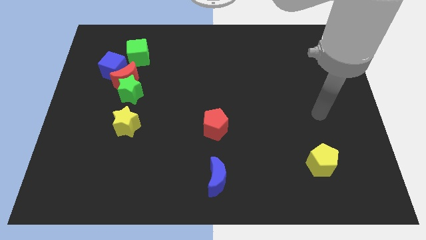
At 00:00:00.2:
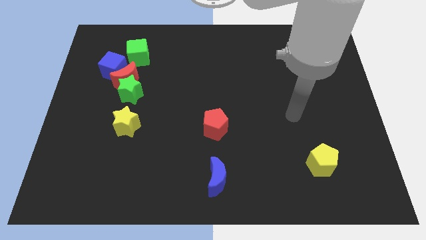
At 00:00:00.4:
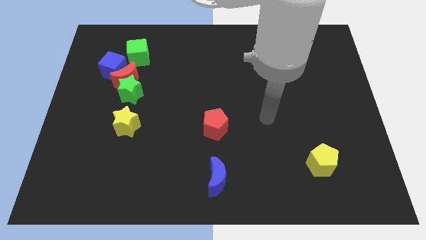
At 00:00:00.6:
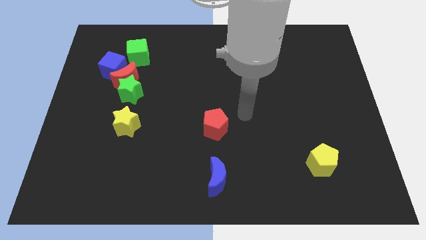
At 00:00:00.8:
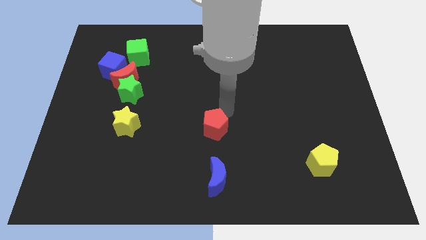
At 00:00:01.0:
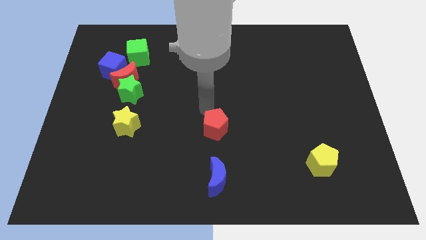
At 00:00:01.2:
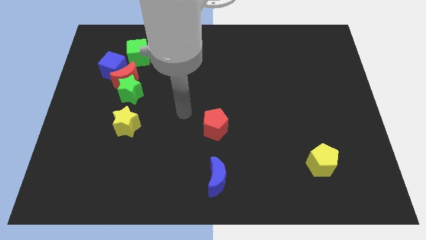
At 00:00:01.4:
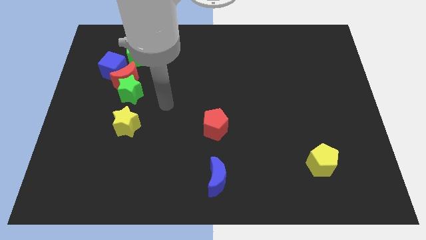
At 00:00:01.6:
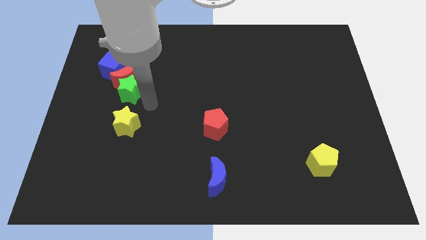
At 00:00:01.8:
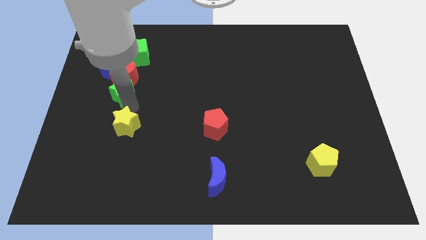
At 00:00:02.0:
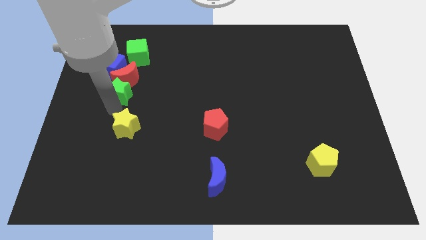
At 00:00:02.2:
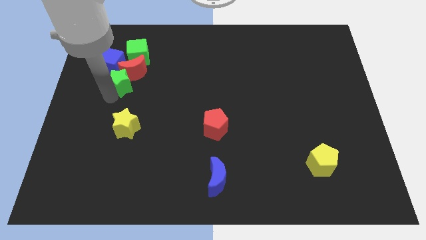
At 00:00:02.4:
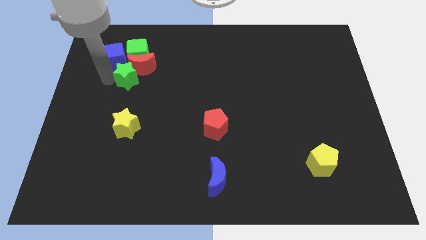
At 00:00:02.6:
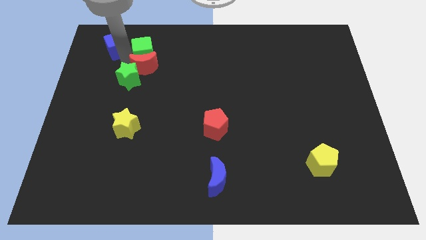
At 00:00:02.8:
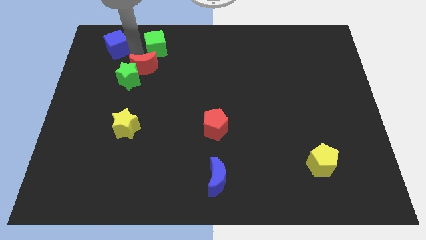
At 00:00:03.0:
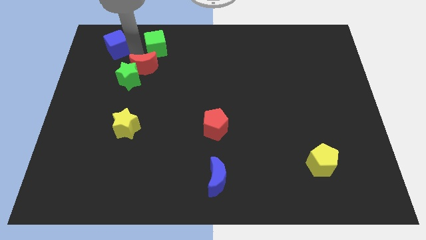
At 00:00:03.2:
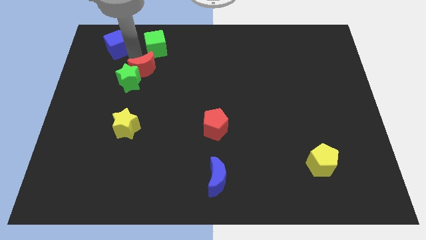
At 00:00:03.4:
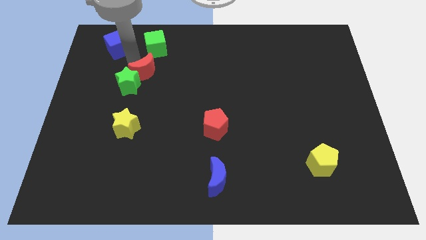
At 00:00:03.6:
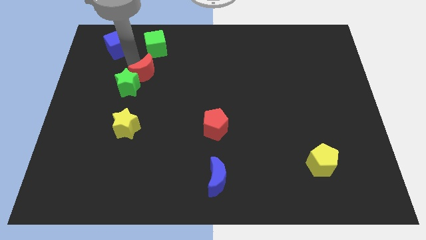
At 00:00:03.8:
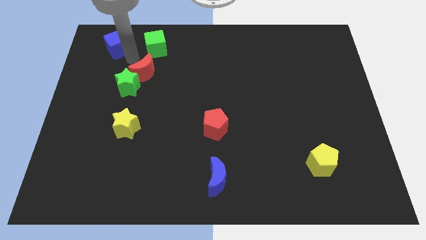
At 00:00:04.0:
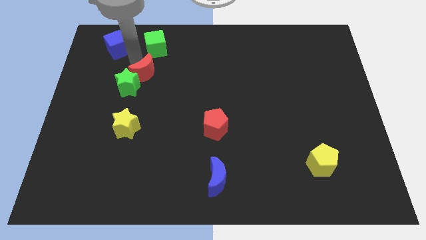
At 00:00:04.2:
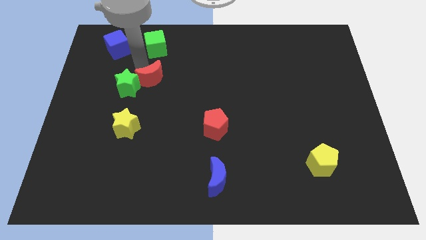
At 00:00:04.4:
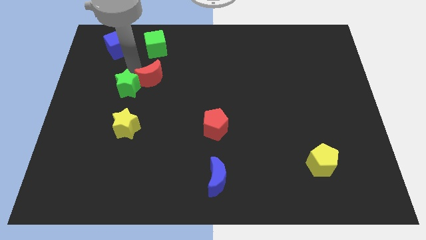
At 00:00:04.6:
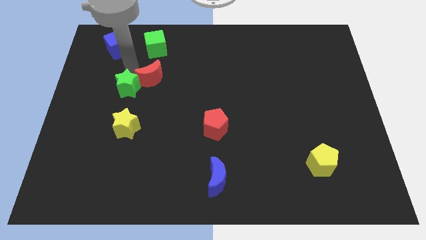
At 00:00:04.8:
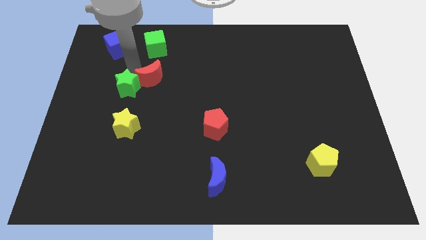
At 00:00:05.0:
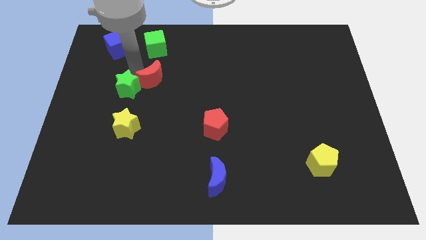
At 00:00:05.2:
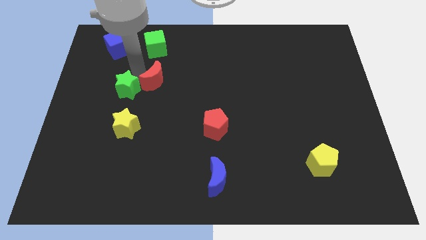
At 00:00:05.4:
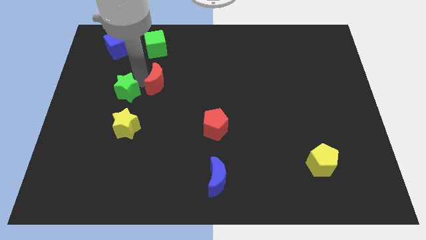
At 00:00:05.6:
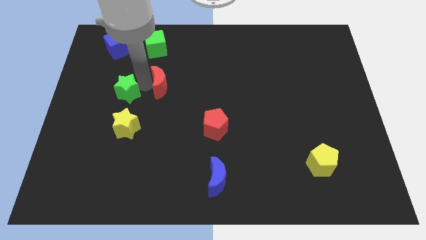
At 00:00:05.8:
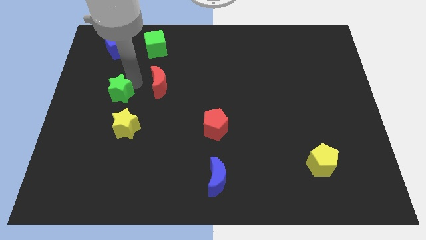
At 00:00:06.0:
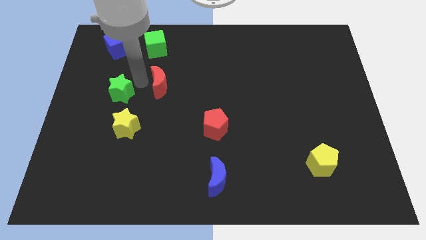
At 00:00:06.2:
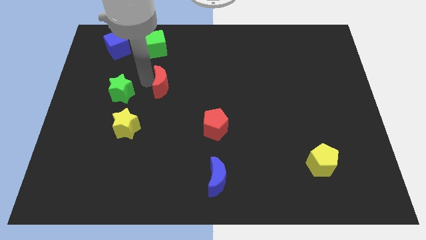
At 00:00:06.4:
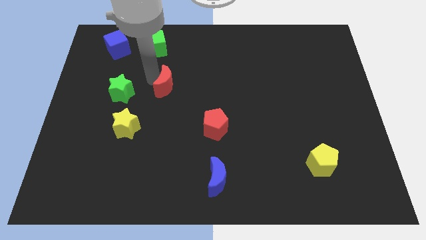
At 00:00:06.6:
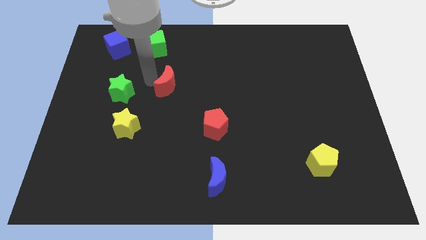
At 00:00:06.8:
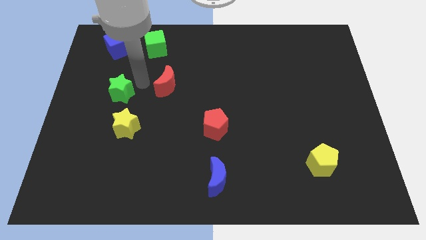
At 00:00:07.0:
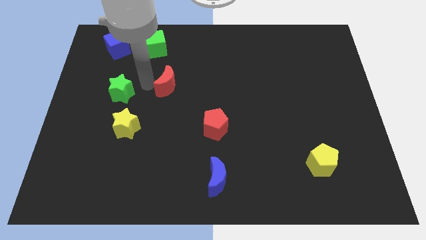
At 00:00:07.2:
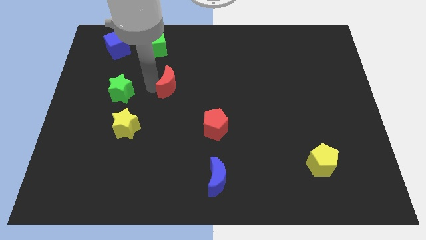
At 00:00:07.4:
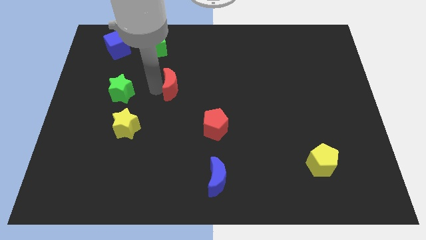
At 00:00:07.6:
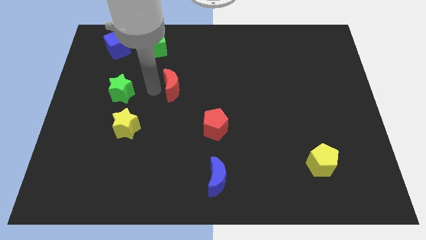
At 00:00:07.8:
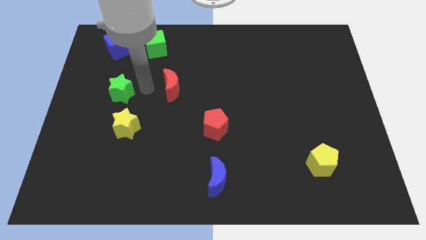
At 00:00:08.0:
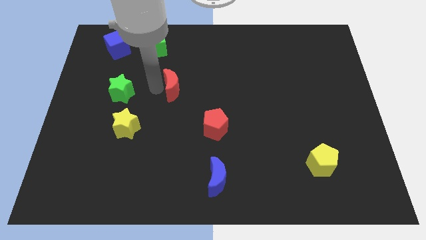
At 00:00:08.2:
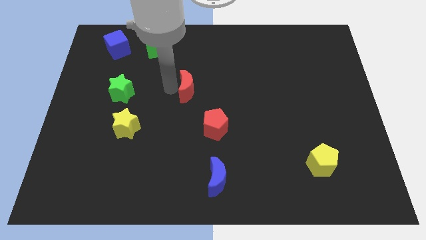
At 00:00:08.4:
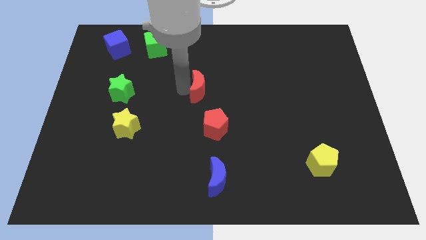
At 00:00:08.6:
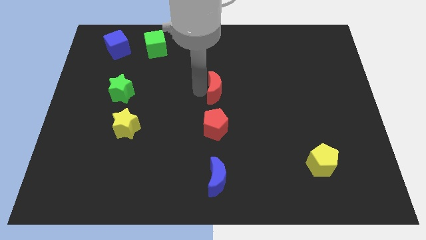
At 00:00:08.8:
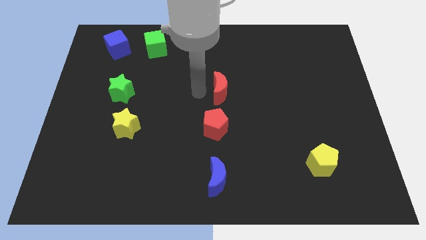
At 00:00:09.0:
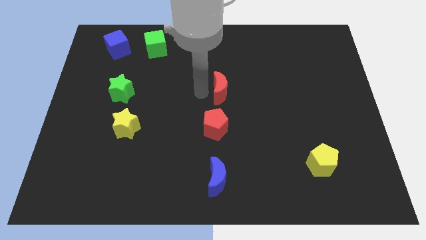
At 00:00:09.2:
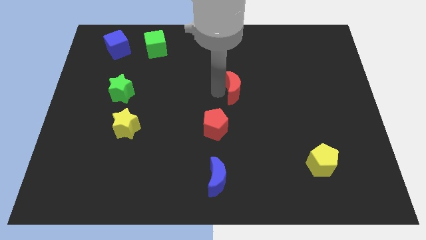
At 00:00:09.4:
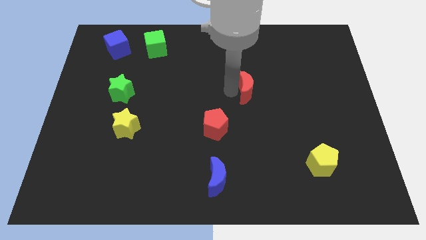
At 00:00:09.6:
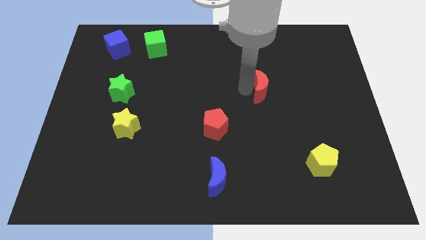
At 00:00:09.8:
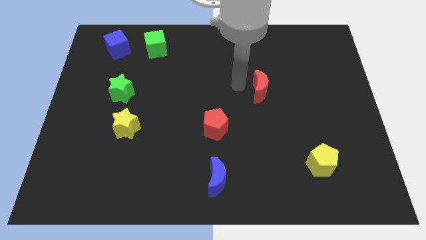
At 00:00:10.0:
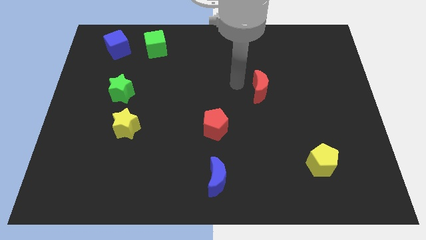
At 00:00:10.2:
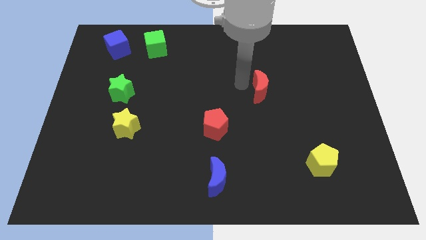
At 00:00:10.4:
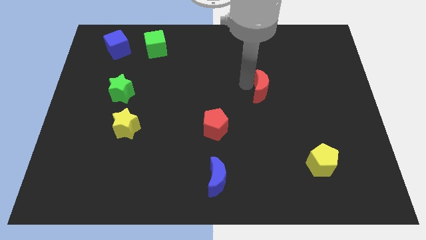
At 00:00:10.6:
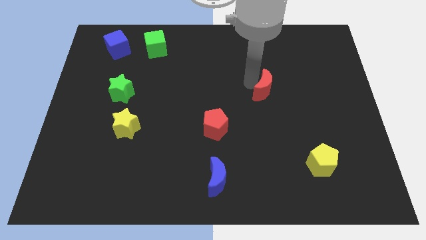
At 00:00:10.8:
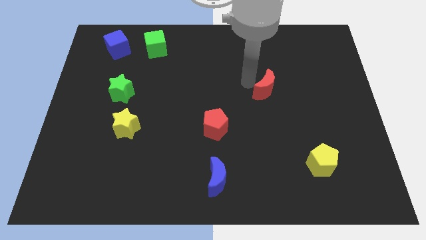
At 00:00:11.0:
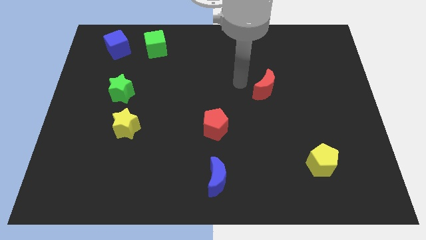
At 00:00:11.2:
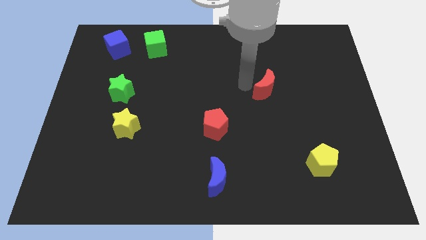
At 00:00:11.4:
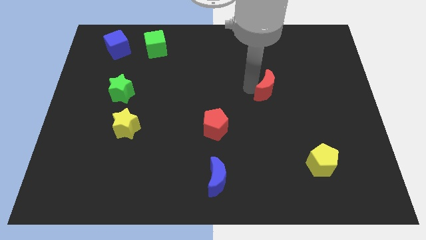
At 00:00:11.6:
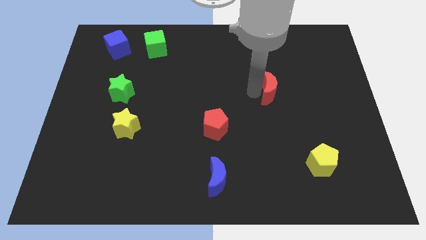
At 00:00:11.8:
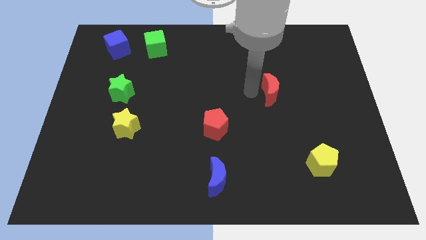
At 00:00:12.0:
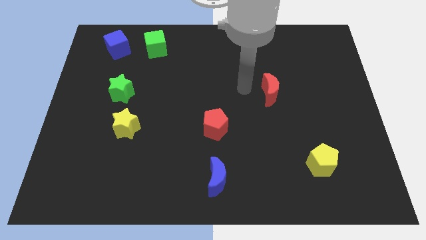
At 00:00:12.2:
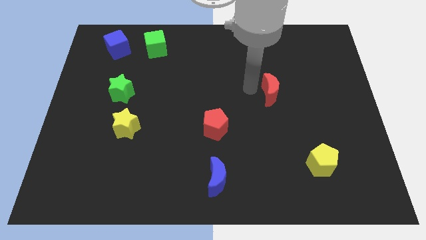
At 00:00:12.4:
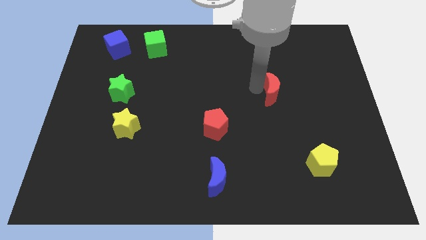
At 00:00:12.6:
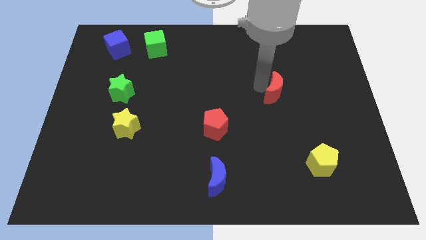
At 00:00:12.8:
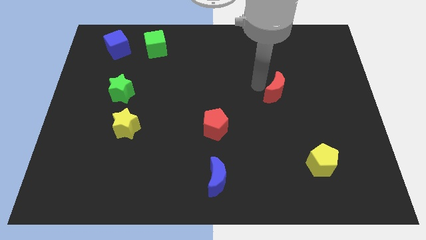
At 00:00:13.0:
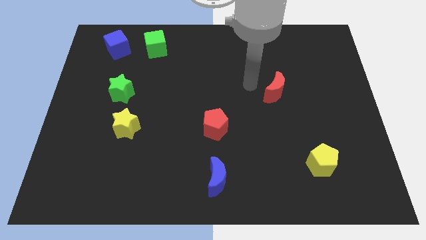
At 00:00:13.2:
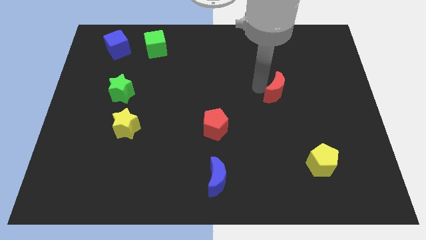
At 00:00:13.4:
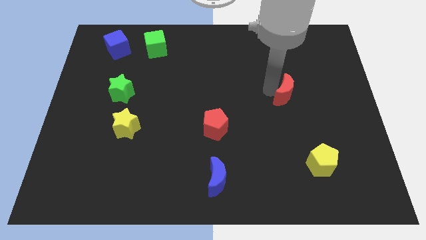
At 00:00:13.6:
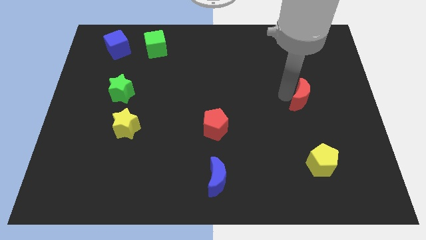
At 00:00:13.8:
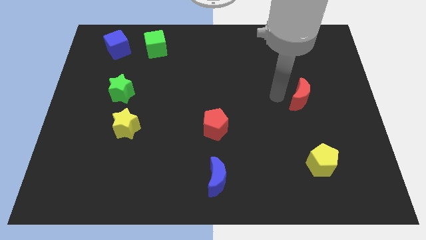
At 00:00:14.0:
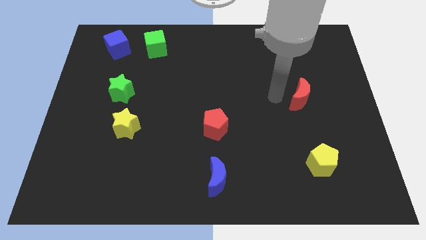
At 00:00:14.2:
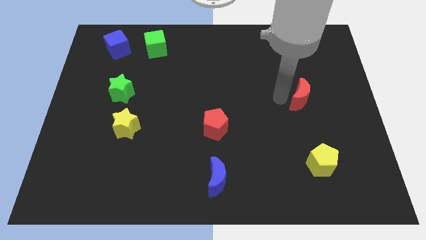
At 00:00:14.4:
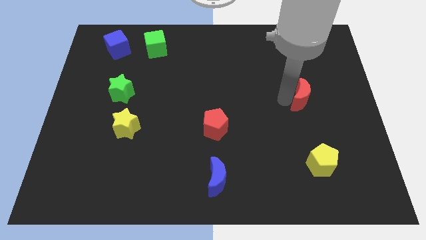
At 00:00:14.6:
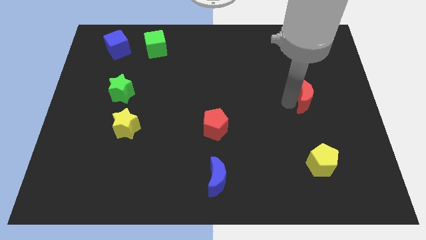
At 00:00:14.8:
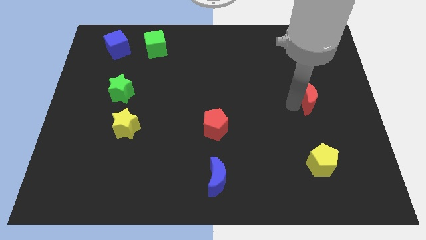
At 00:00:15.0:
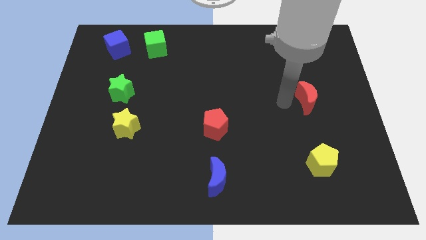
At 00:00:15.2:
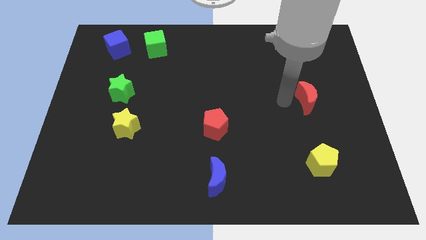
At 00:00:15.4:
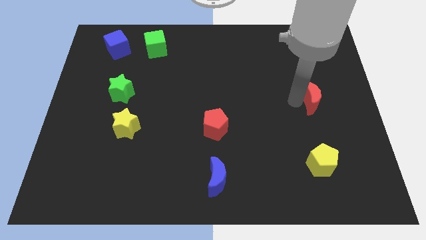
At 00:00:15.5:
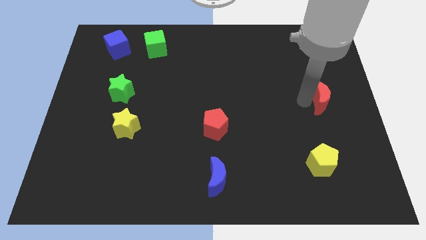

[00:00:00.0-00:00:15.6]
put the red moon to the right side of the board
